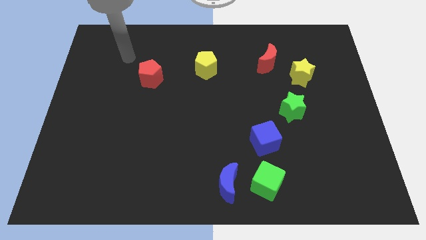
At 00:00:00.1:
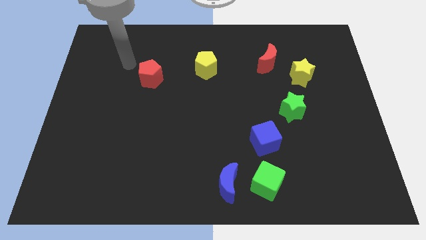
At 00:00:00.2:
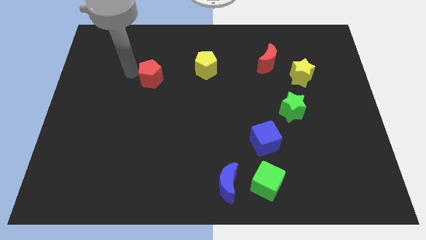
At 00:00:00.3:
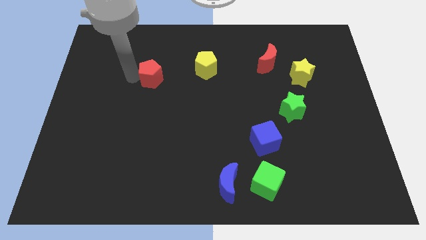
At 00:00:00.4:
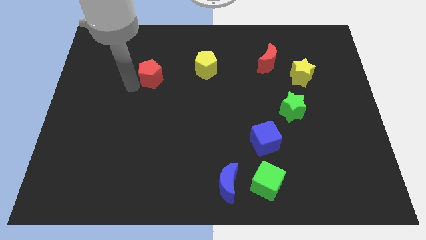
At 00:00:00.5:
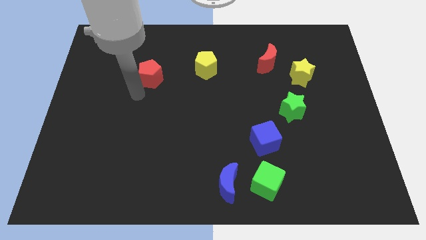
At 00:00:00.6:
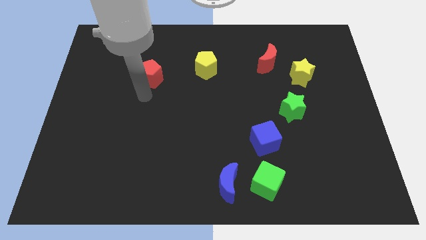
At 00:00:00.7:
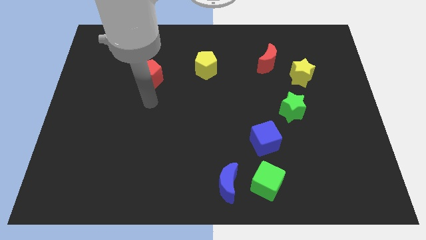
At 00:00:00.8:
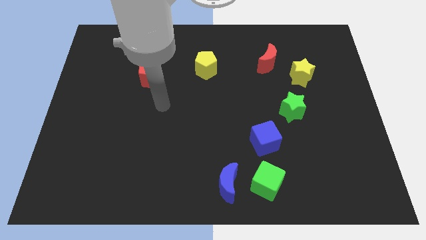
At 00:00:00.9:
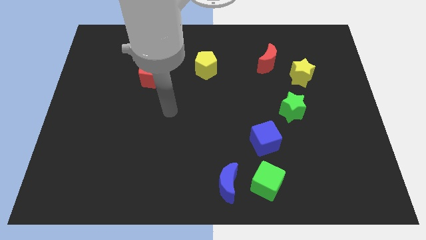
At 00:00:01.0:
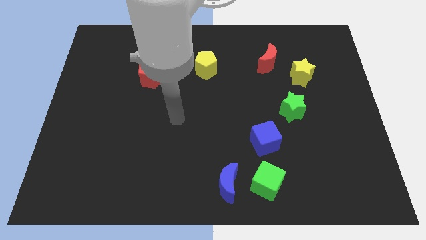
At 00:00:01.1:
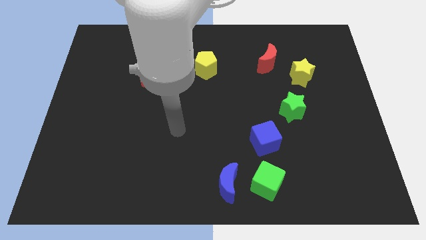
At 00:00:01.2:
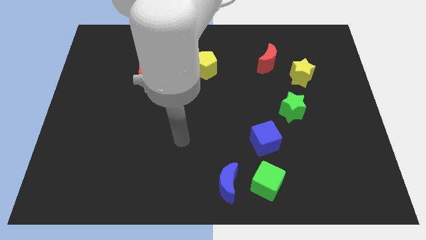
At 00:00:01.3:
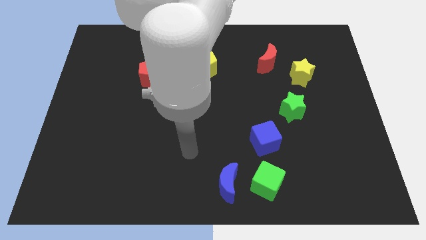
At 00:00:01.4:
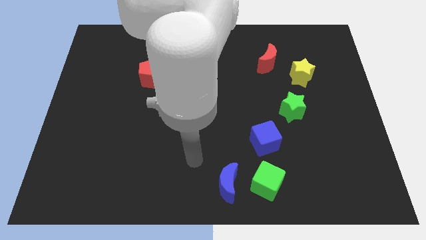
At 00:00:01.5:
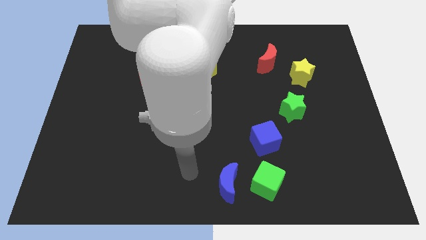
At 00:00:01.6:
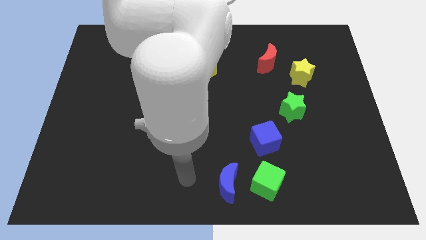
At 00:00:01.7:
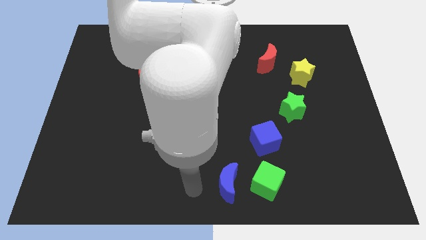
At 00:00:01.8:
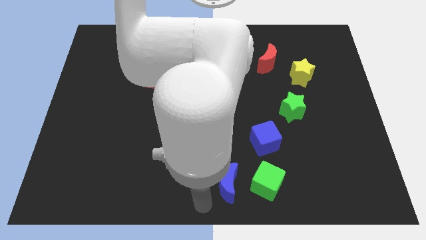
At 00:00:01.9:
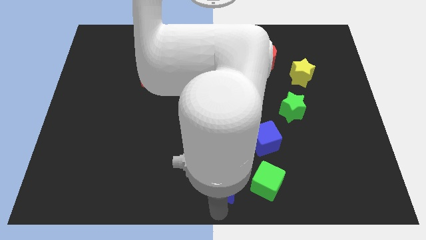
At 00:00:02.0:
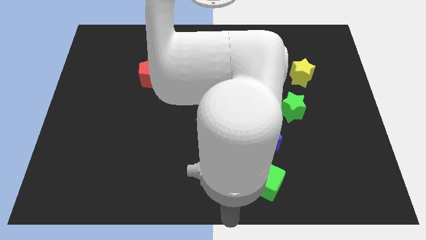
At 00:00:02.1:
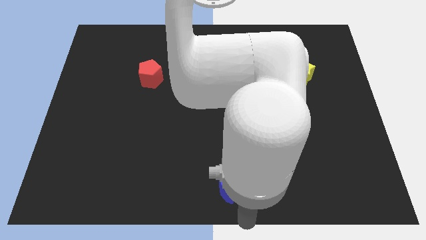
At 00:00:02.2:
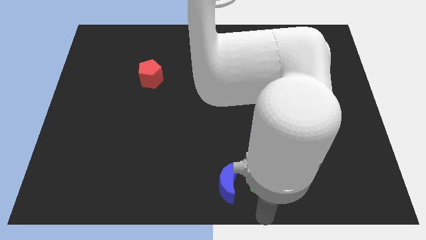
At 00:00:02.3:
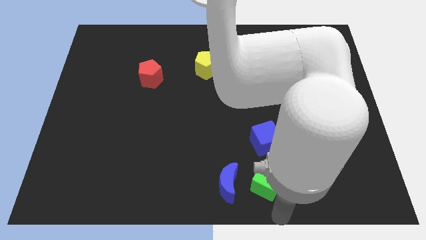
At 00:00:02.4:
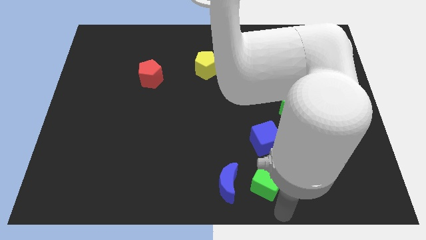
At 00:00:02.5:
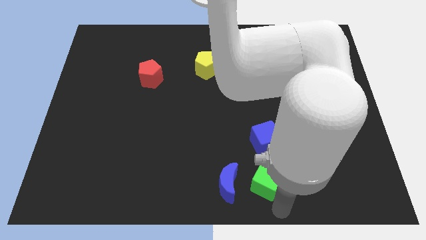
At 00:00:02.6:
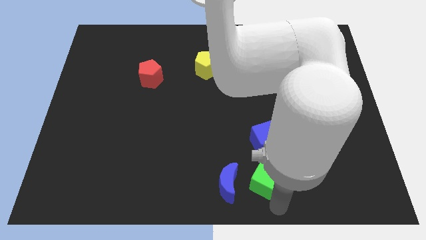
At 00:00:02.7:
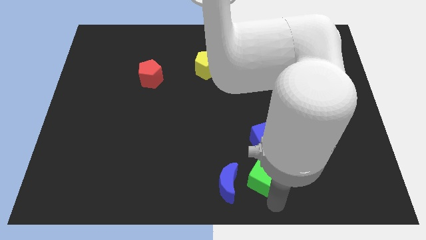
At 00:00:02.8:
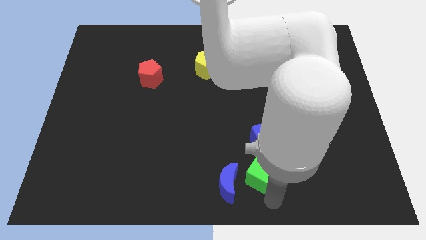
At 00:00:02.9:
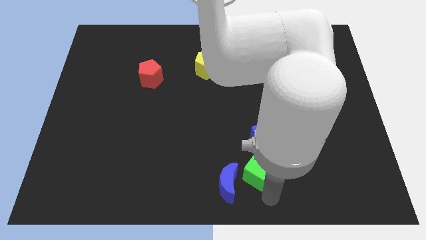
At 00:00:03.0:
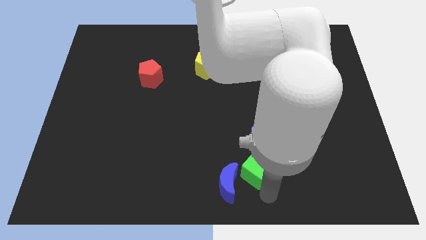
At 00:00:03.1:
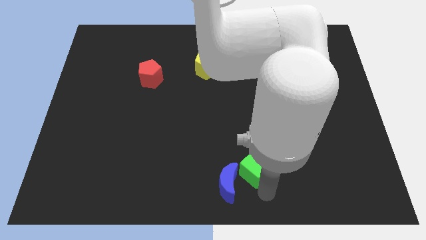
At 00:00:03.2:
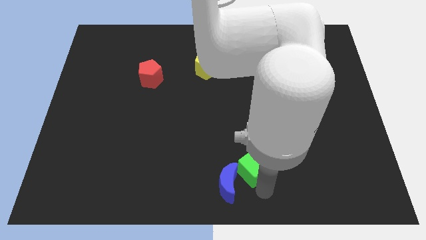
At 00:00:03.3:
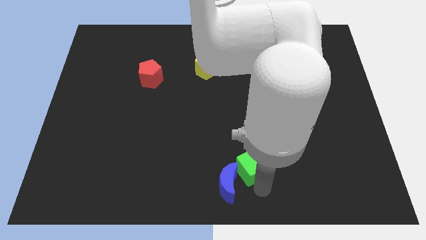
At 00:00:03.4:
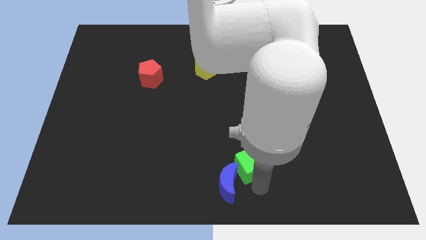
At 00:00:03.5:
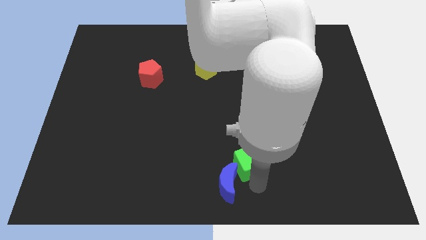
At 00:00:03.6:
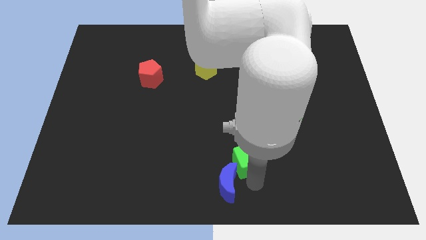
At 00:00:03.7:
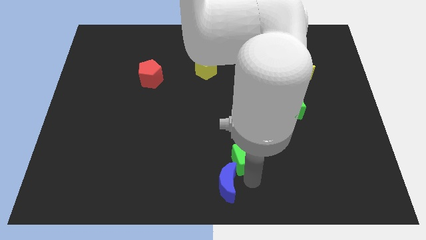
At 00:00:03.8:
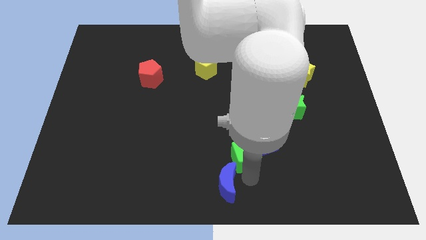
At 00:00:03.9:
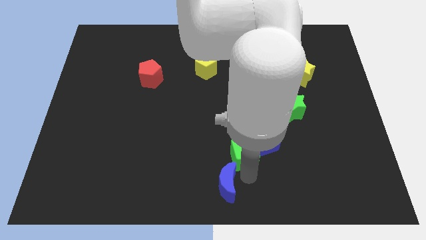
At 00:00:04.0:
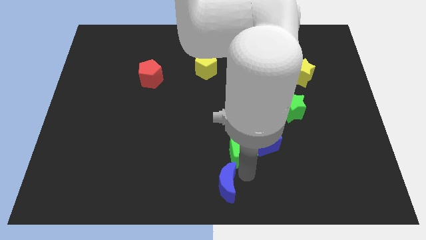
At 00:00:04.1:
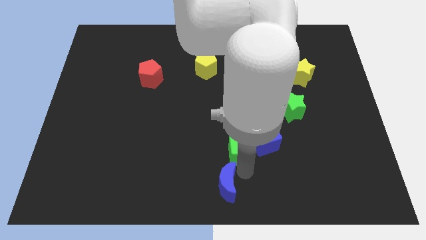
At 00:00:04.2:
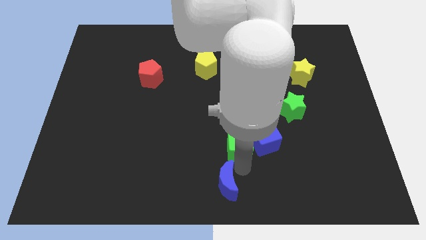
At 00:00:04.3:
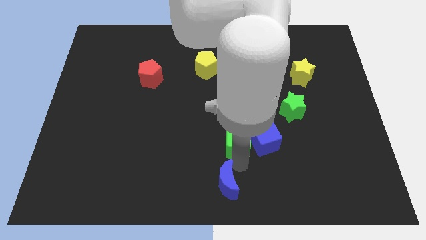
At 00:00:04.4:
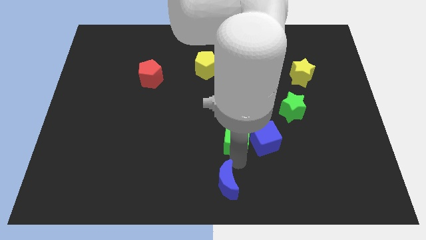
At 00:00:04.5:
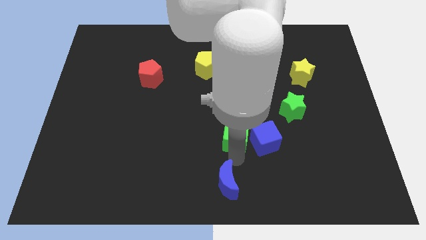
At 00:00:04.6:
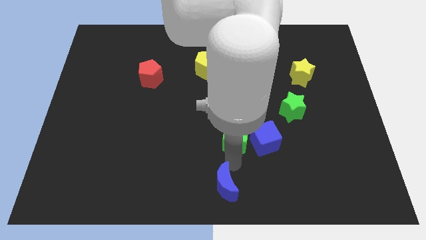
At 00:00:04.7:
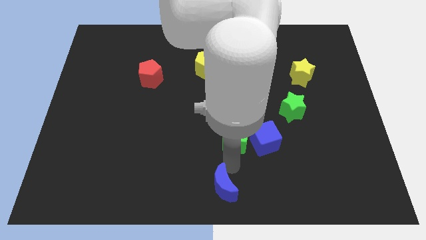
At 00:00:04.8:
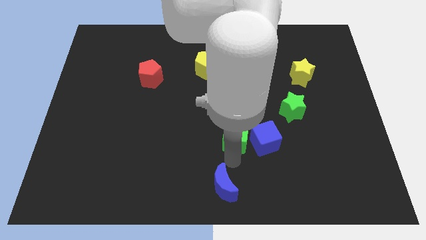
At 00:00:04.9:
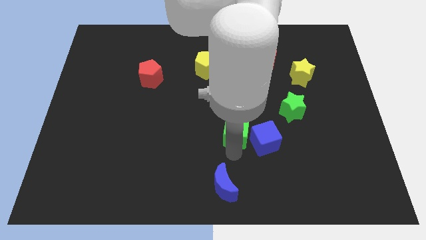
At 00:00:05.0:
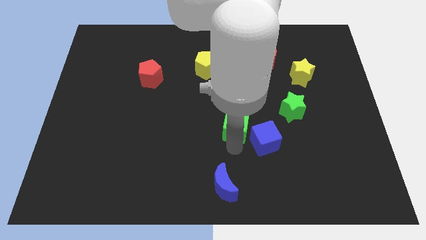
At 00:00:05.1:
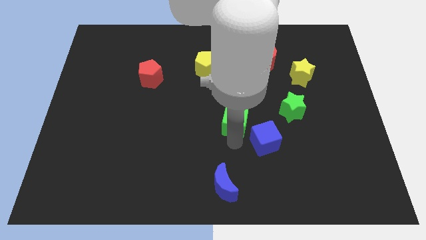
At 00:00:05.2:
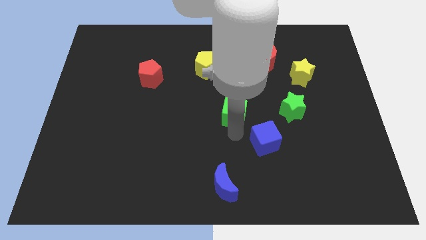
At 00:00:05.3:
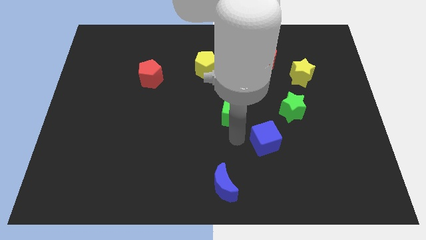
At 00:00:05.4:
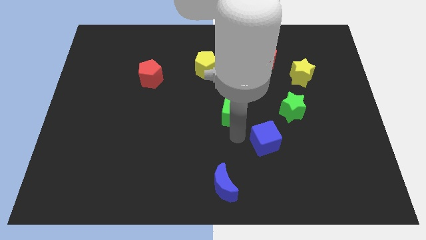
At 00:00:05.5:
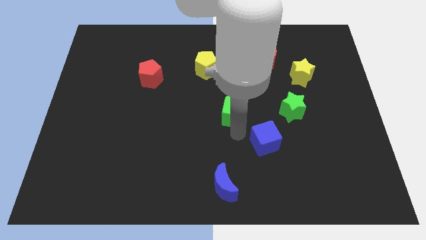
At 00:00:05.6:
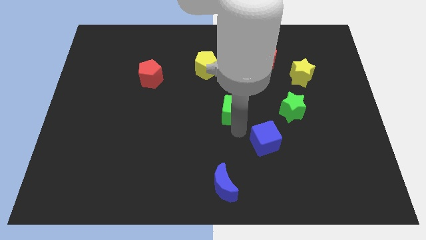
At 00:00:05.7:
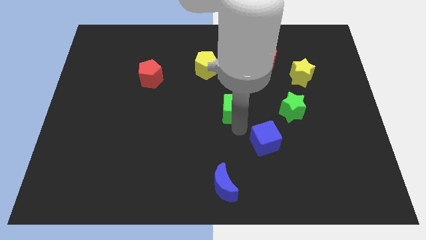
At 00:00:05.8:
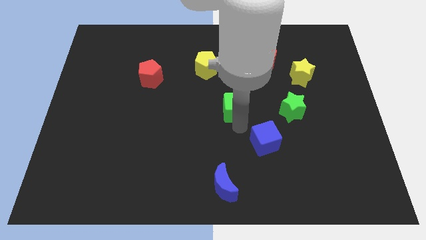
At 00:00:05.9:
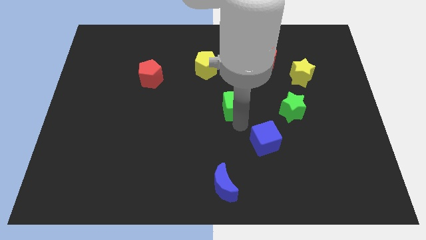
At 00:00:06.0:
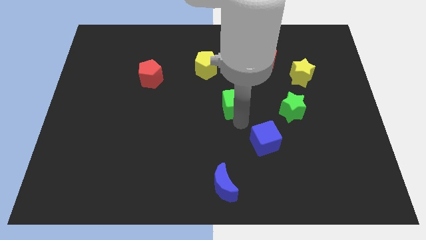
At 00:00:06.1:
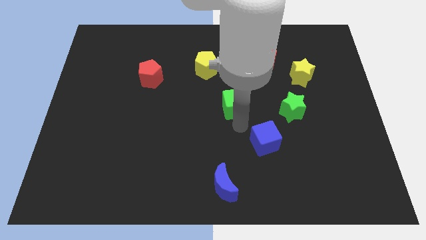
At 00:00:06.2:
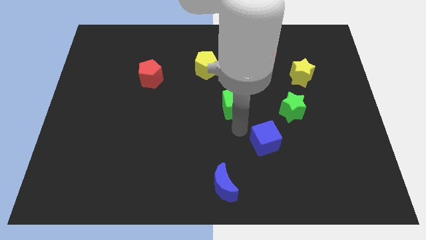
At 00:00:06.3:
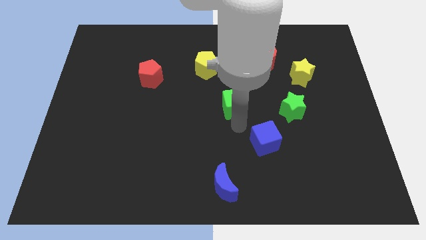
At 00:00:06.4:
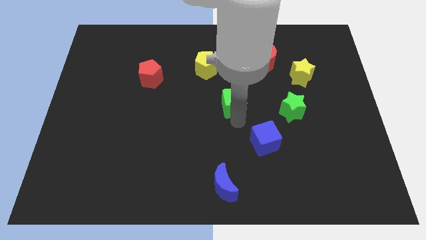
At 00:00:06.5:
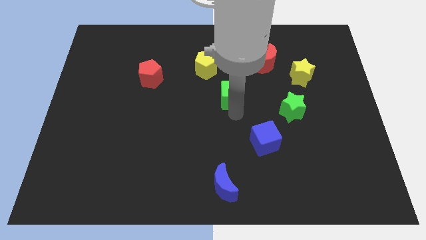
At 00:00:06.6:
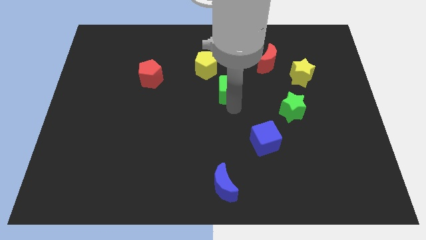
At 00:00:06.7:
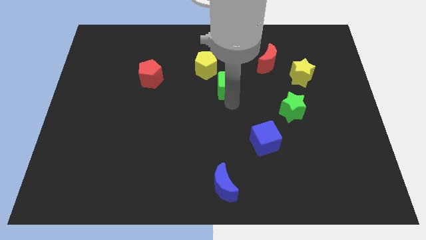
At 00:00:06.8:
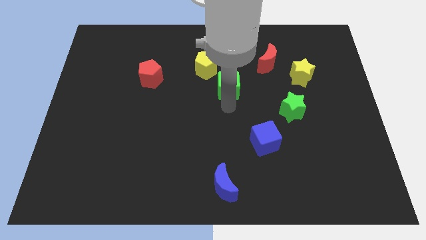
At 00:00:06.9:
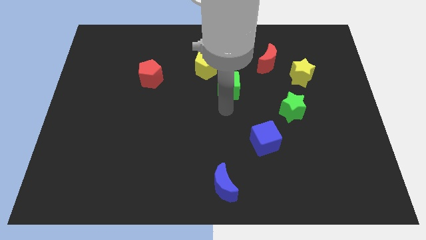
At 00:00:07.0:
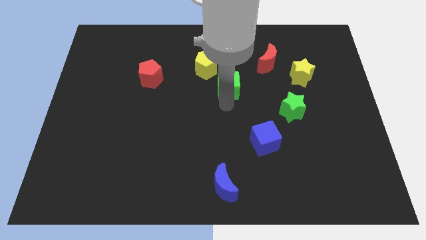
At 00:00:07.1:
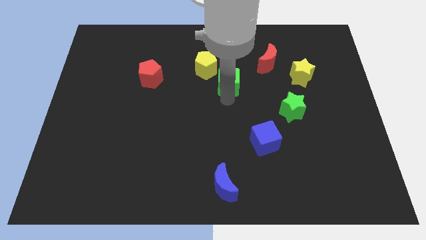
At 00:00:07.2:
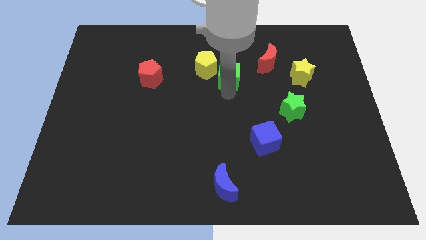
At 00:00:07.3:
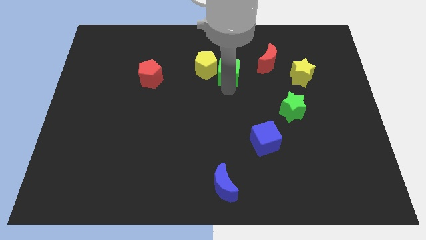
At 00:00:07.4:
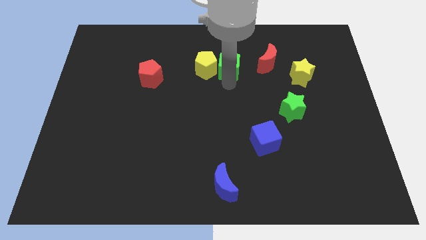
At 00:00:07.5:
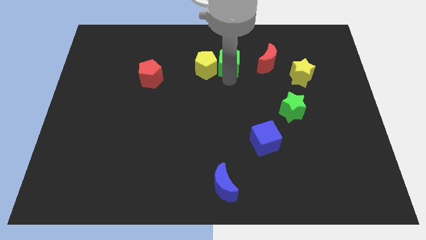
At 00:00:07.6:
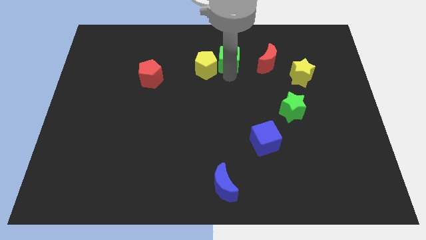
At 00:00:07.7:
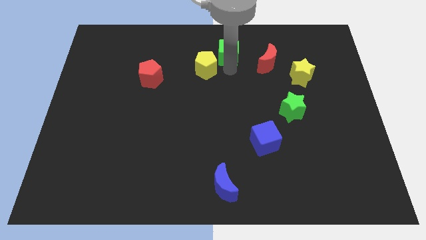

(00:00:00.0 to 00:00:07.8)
move the green cube to the towards your base
